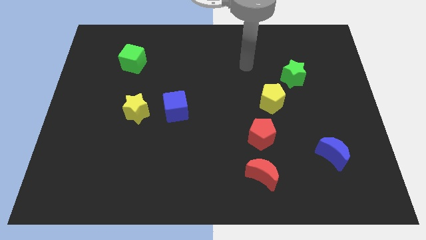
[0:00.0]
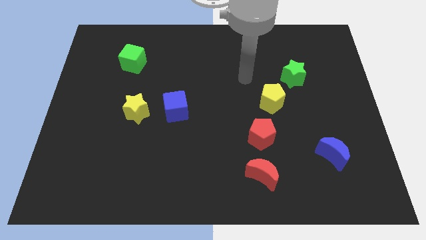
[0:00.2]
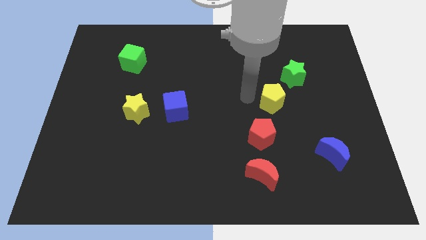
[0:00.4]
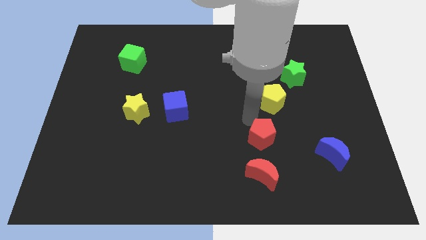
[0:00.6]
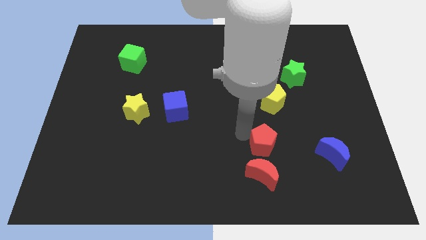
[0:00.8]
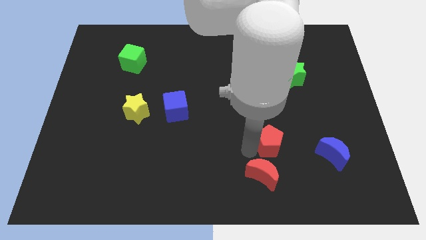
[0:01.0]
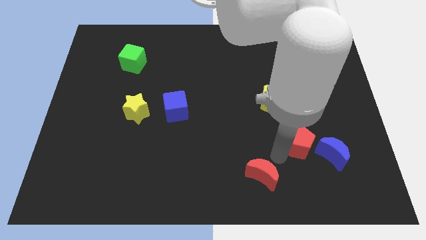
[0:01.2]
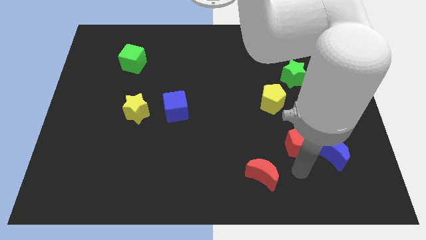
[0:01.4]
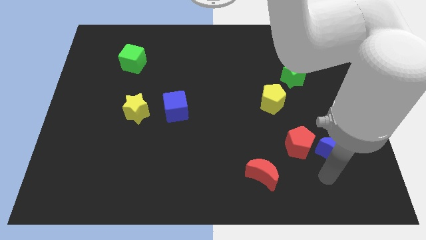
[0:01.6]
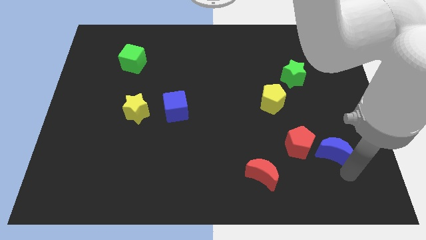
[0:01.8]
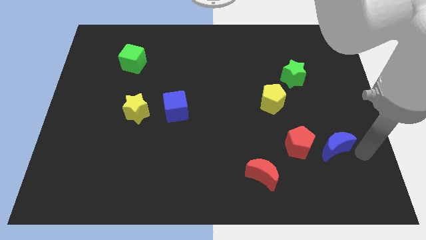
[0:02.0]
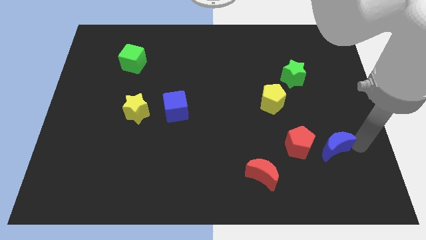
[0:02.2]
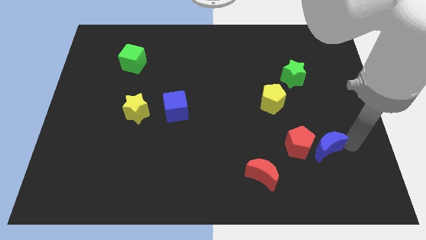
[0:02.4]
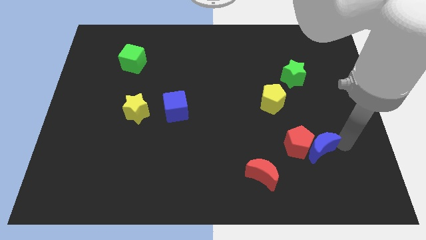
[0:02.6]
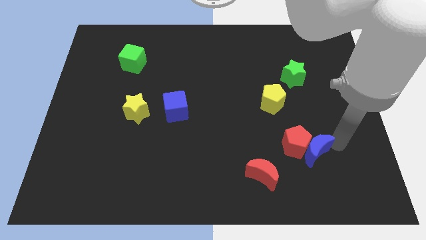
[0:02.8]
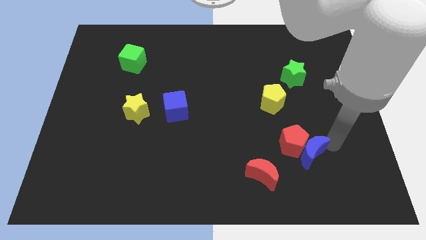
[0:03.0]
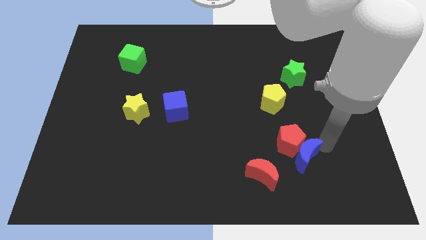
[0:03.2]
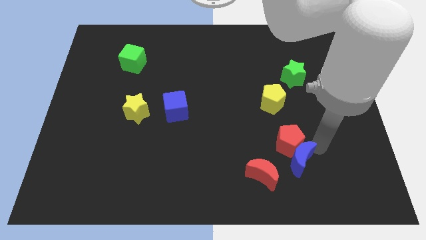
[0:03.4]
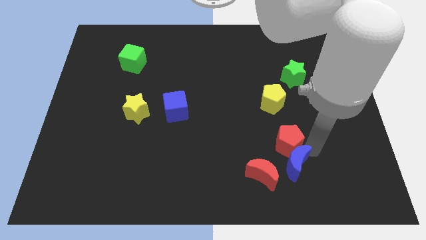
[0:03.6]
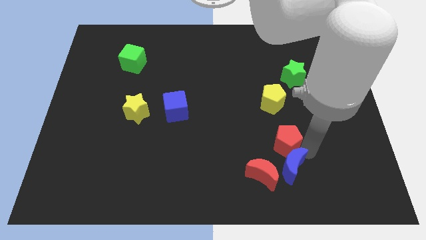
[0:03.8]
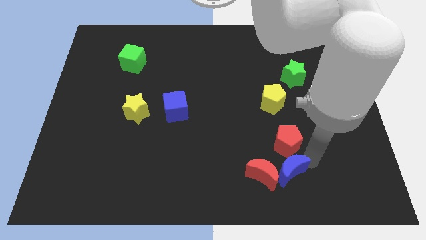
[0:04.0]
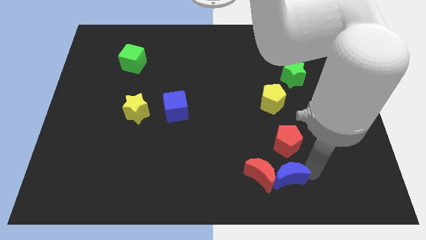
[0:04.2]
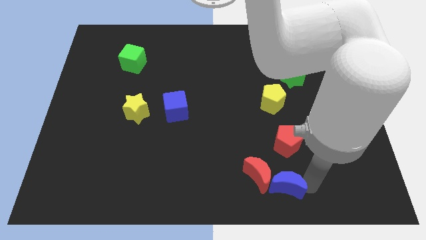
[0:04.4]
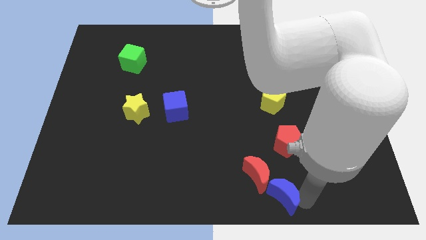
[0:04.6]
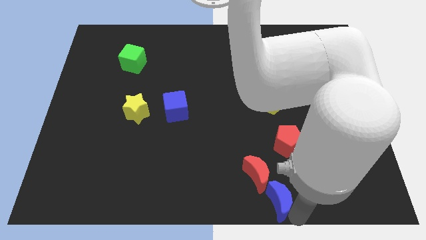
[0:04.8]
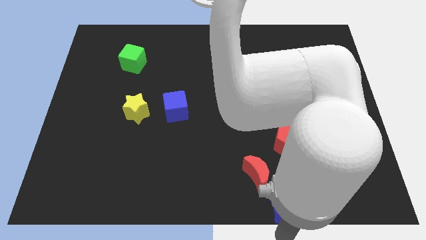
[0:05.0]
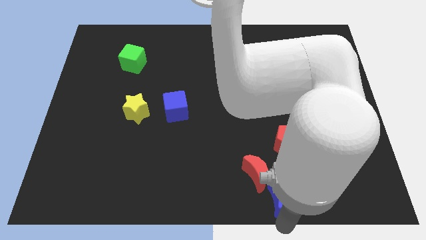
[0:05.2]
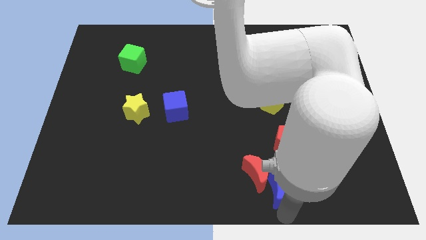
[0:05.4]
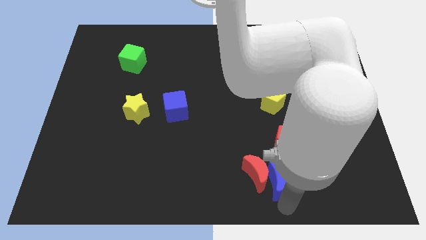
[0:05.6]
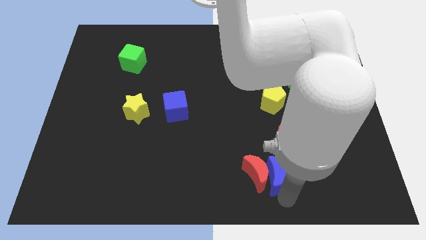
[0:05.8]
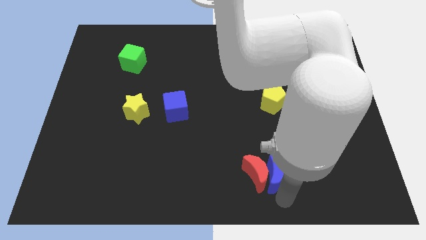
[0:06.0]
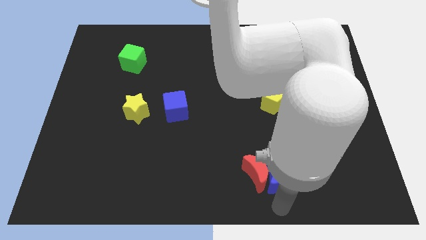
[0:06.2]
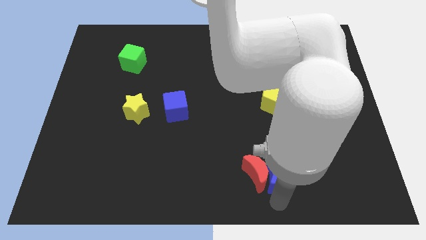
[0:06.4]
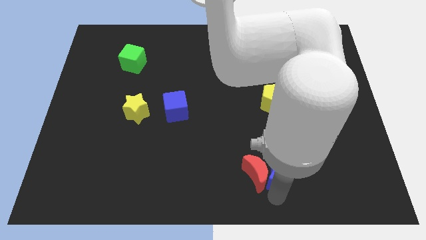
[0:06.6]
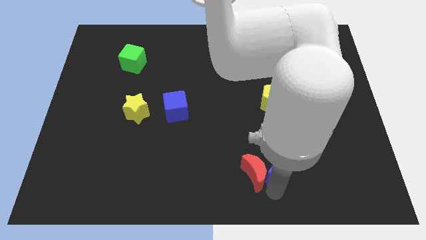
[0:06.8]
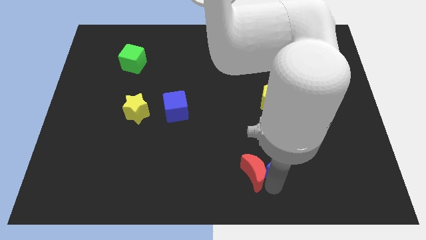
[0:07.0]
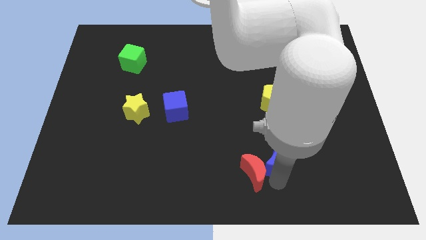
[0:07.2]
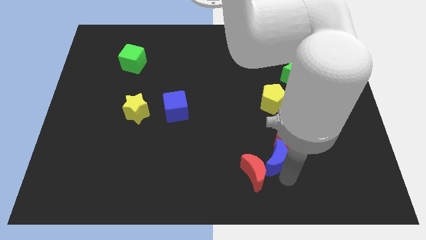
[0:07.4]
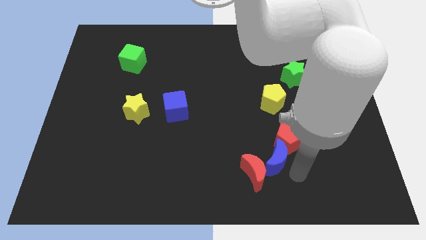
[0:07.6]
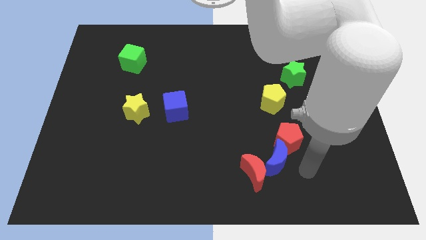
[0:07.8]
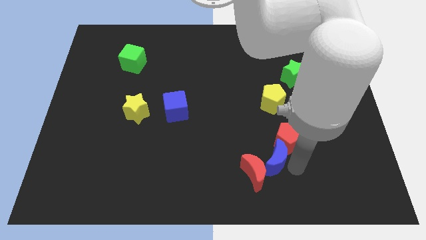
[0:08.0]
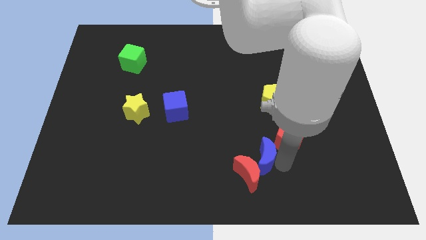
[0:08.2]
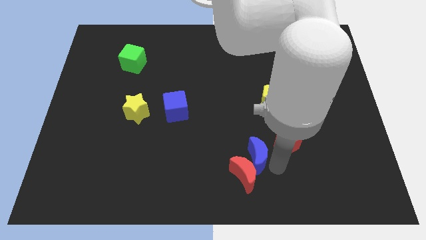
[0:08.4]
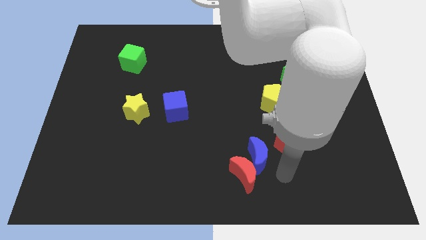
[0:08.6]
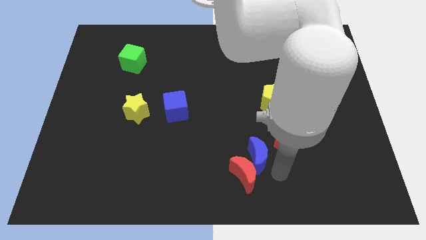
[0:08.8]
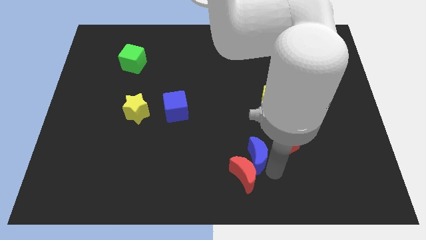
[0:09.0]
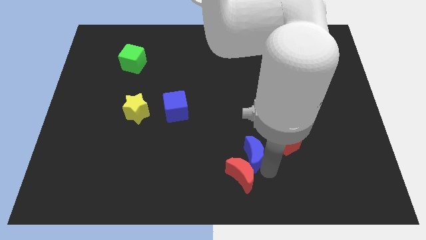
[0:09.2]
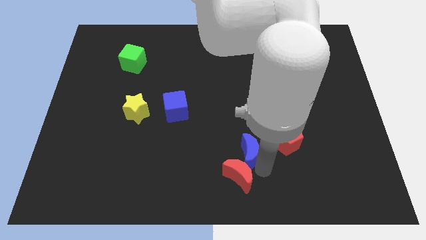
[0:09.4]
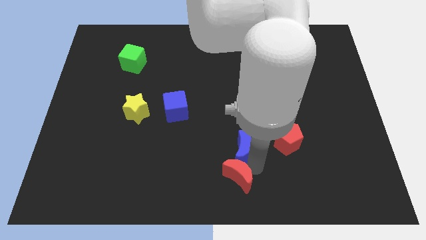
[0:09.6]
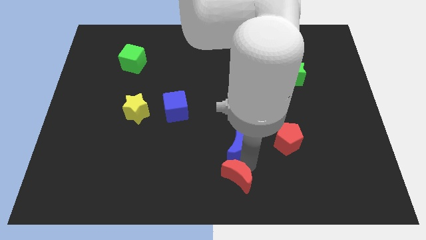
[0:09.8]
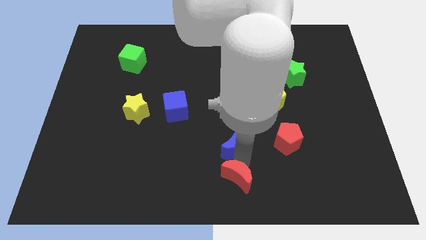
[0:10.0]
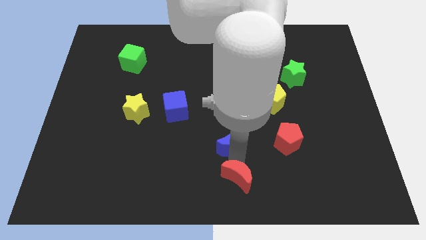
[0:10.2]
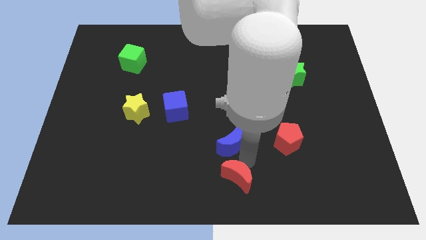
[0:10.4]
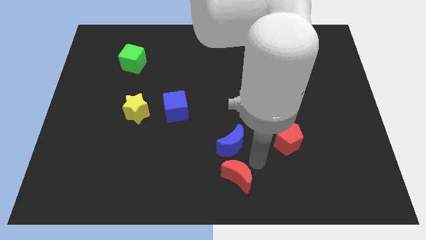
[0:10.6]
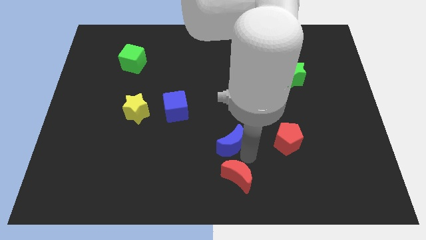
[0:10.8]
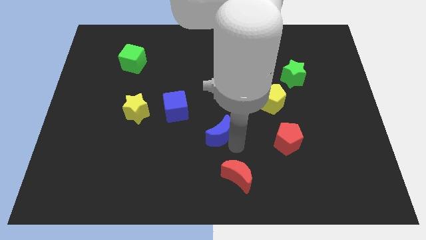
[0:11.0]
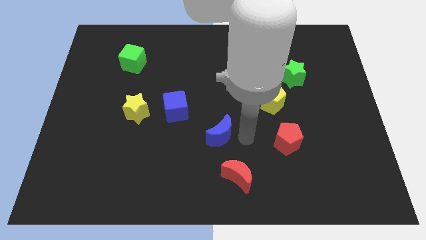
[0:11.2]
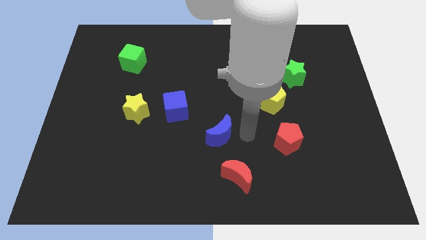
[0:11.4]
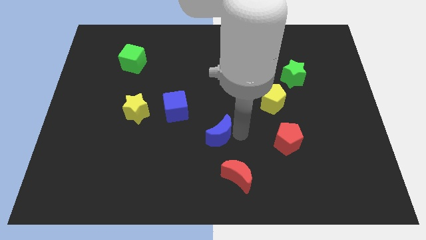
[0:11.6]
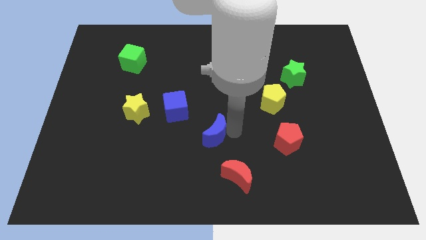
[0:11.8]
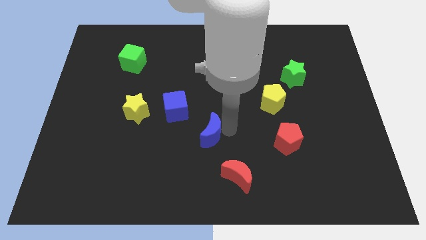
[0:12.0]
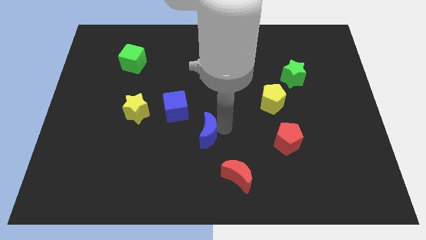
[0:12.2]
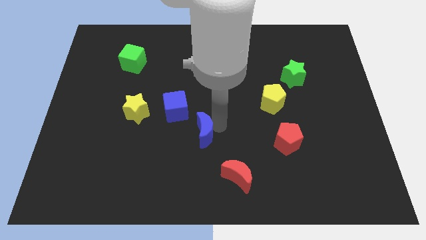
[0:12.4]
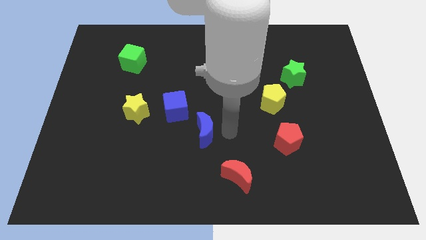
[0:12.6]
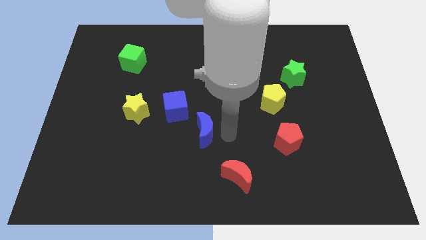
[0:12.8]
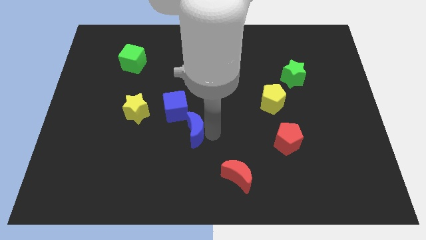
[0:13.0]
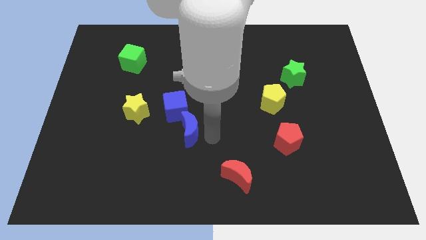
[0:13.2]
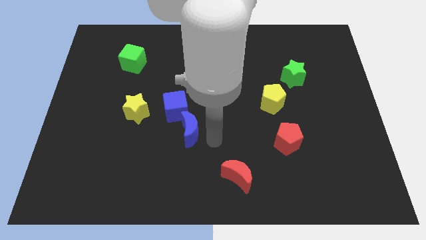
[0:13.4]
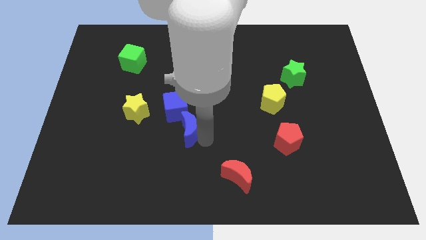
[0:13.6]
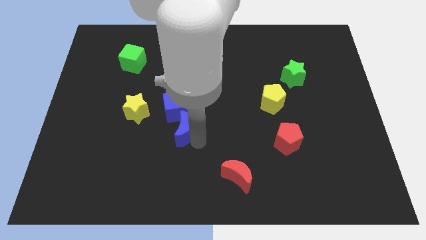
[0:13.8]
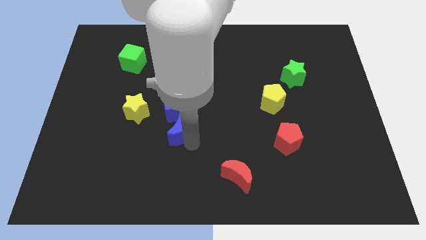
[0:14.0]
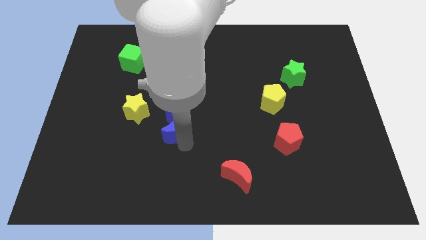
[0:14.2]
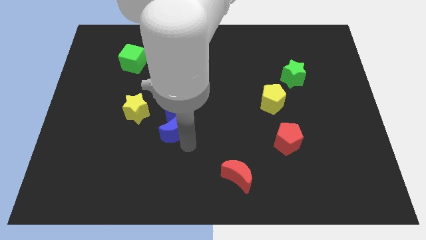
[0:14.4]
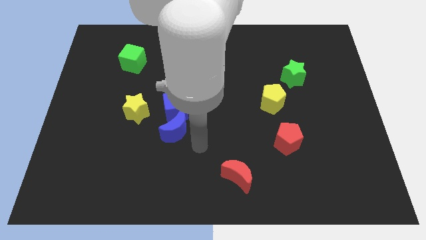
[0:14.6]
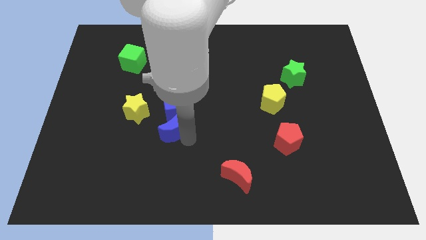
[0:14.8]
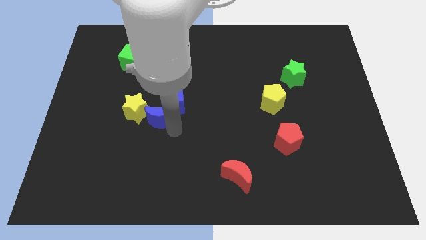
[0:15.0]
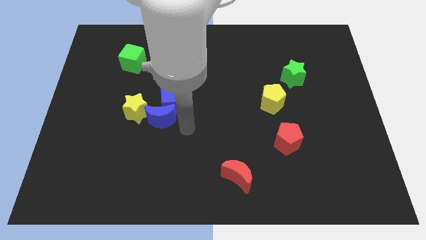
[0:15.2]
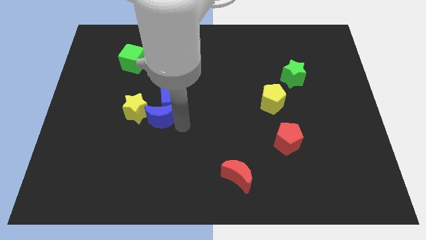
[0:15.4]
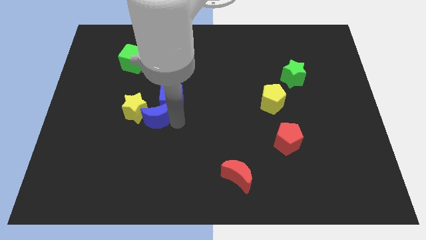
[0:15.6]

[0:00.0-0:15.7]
push the blue moon next to the yellow star
